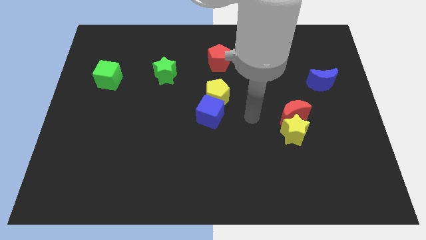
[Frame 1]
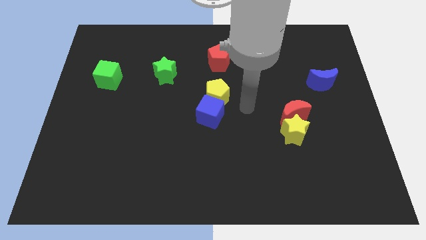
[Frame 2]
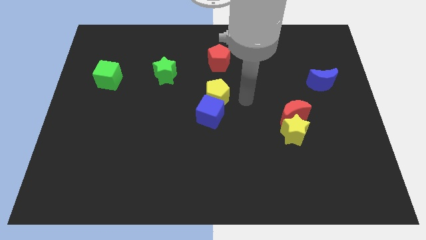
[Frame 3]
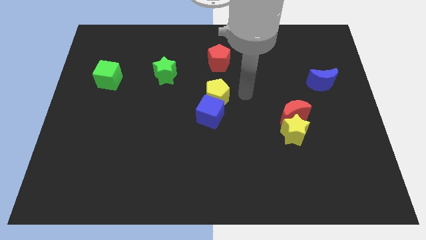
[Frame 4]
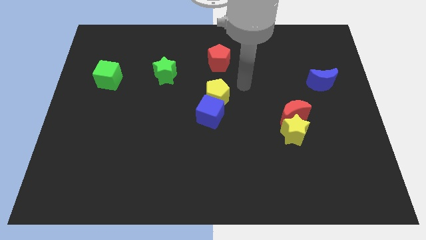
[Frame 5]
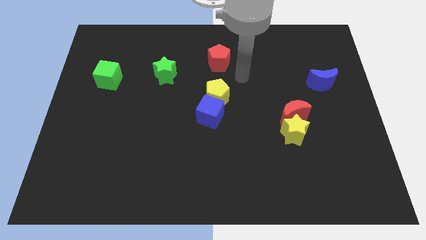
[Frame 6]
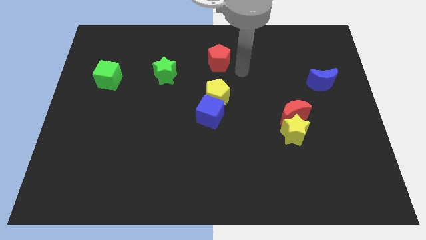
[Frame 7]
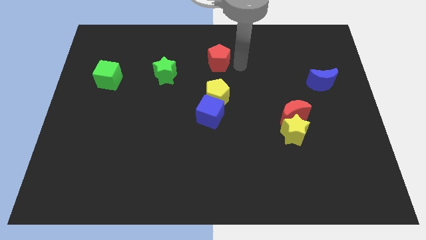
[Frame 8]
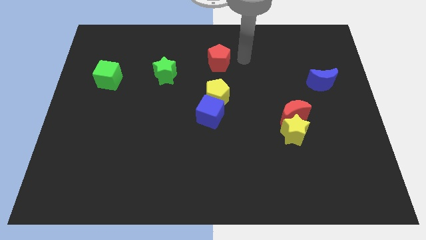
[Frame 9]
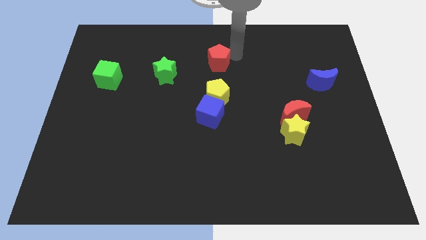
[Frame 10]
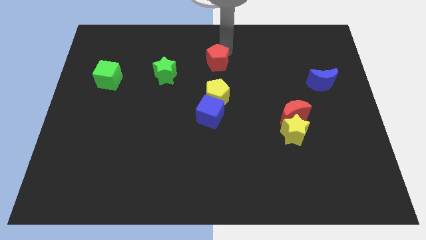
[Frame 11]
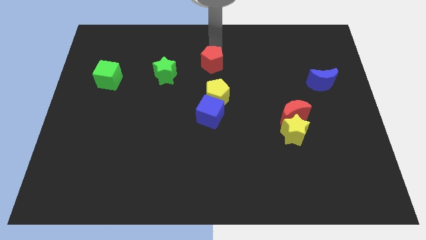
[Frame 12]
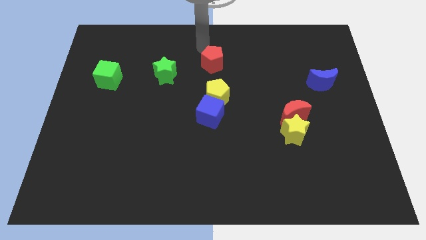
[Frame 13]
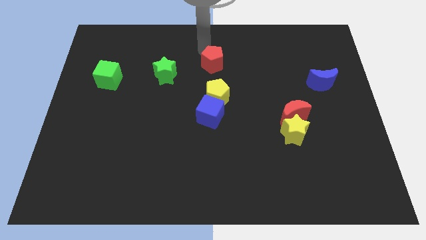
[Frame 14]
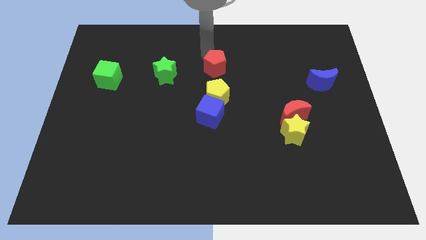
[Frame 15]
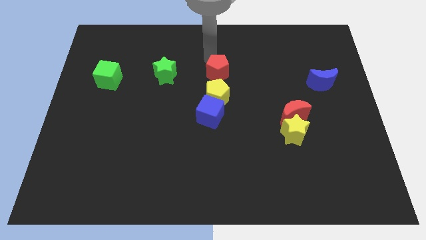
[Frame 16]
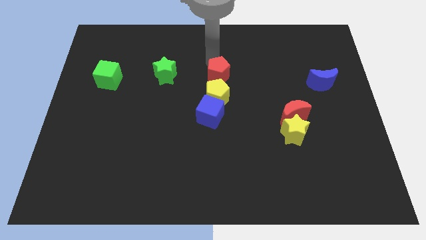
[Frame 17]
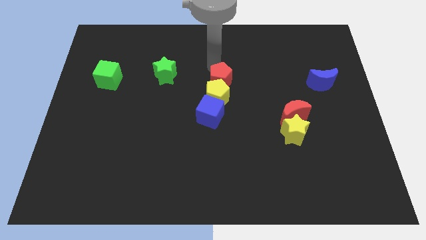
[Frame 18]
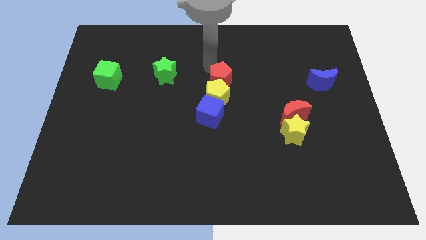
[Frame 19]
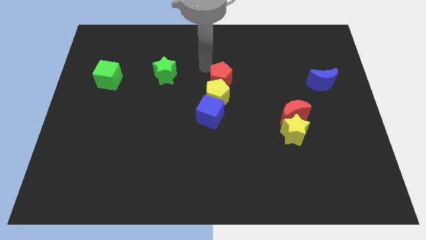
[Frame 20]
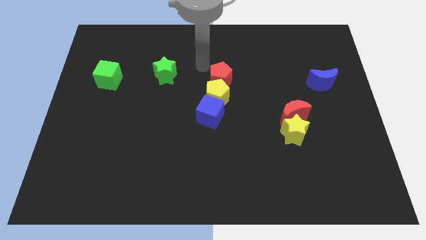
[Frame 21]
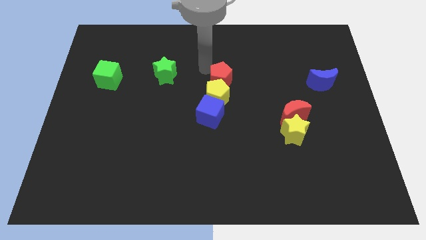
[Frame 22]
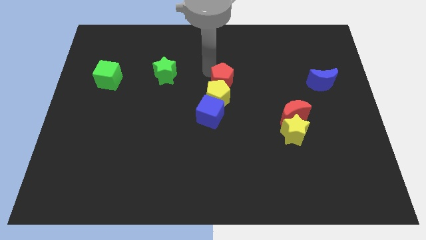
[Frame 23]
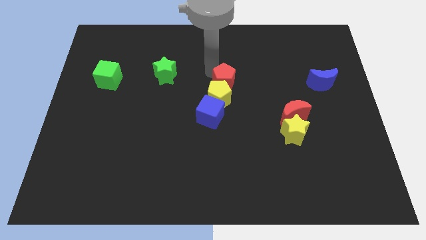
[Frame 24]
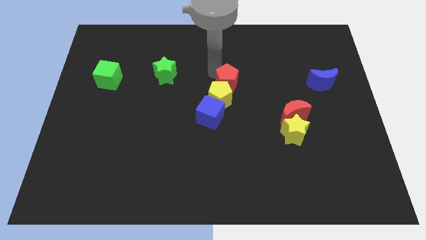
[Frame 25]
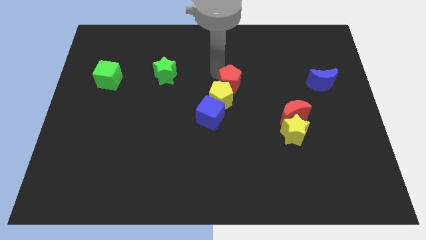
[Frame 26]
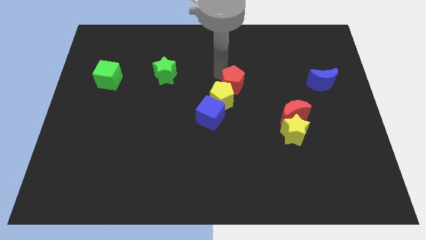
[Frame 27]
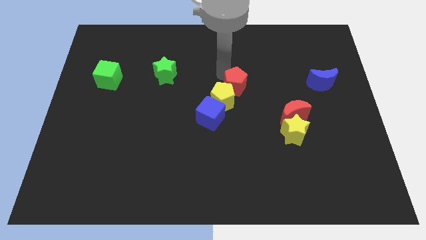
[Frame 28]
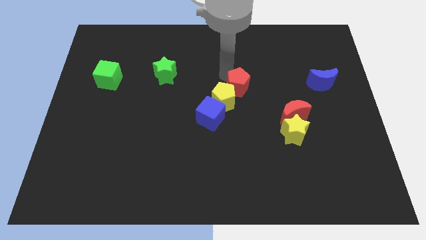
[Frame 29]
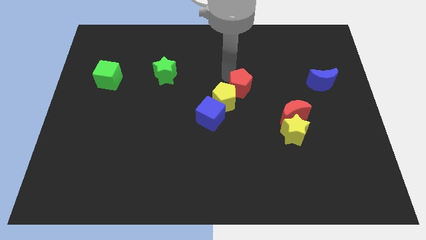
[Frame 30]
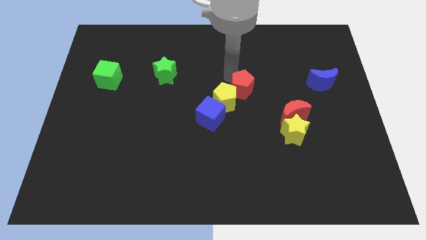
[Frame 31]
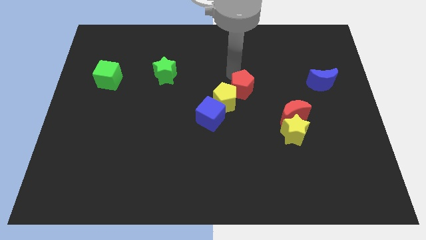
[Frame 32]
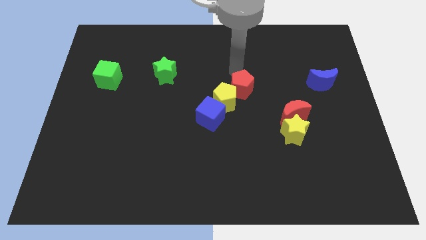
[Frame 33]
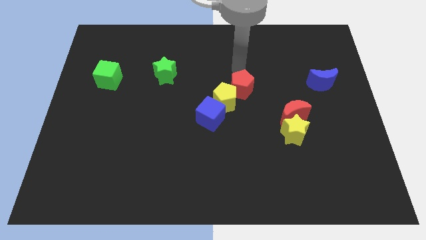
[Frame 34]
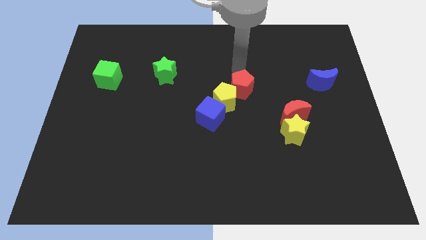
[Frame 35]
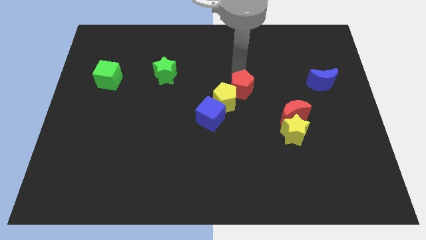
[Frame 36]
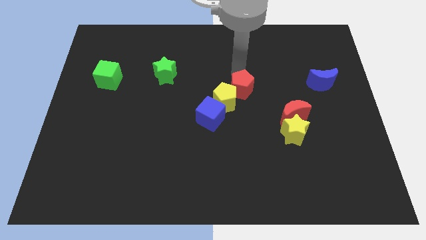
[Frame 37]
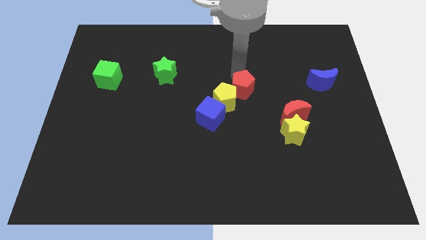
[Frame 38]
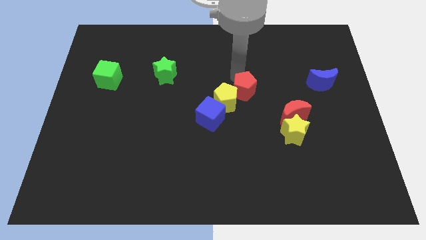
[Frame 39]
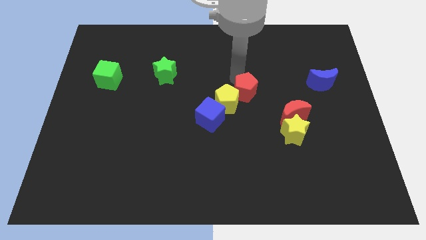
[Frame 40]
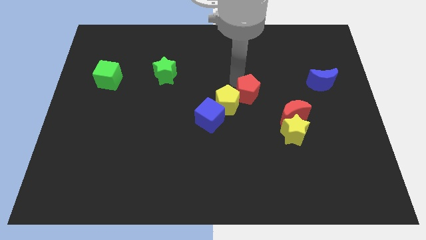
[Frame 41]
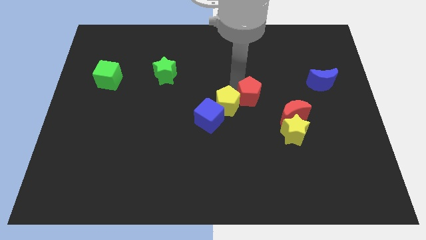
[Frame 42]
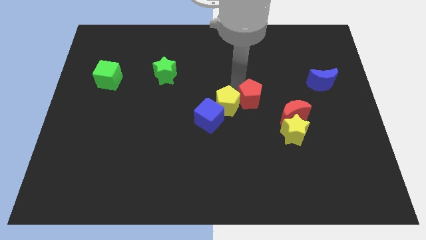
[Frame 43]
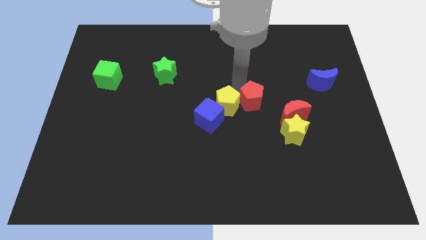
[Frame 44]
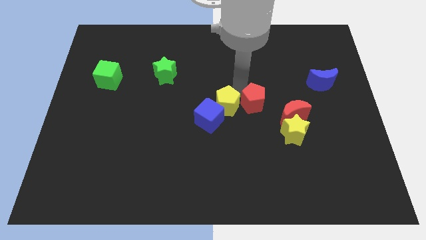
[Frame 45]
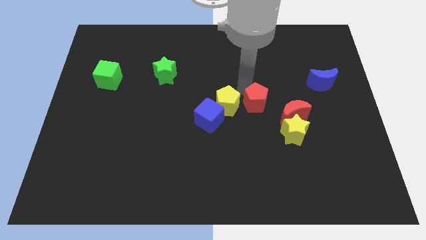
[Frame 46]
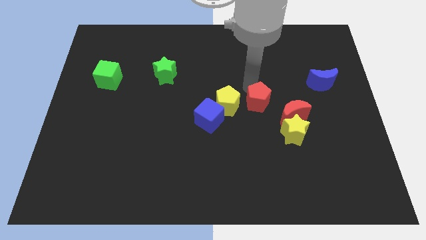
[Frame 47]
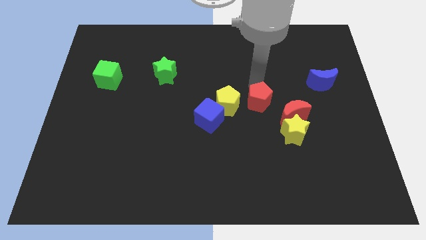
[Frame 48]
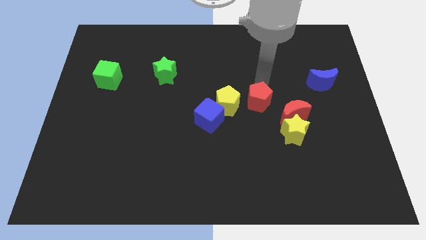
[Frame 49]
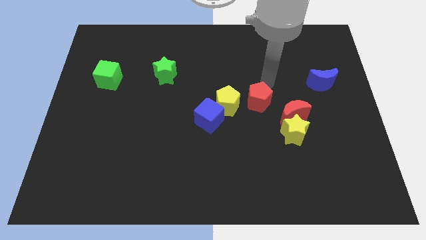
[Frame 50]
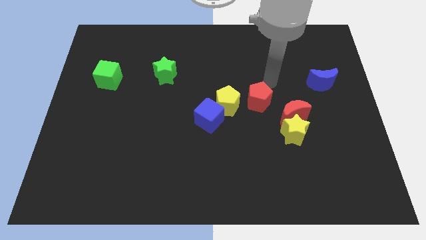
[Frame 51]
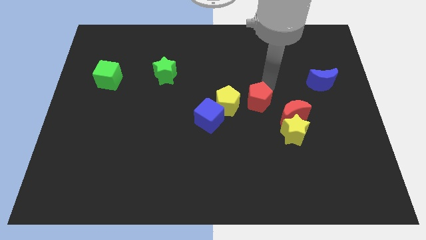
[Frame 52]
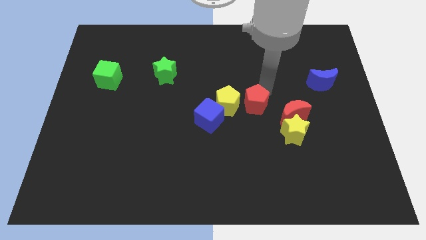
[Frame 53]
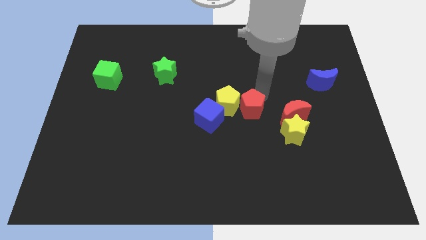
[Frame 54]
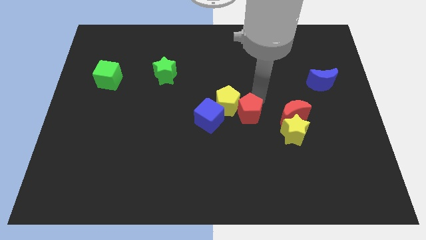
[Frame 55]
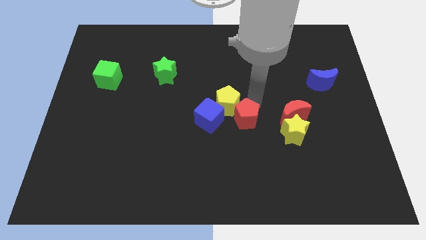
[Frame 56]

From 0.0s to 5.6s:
move the red pentagon just left of the yellow star

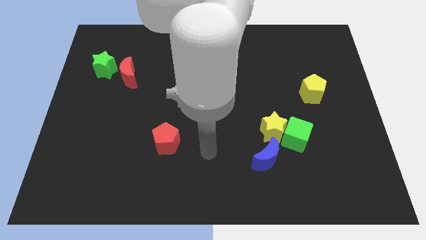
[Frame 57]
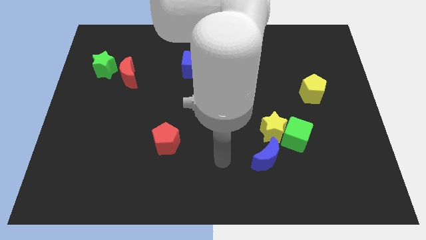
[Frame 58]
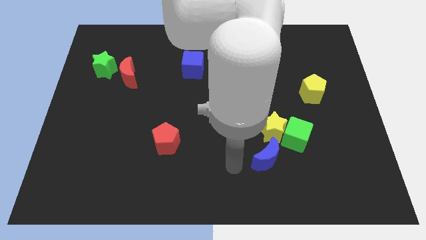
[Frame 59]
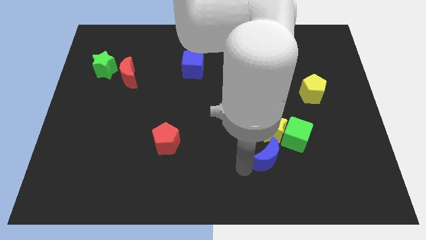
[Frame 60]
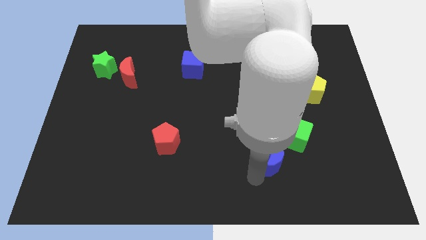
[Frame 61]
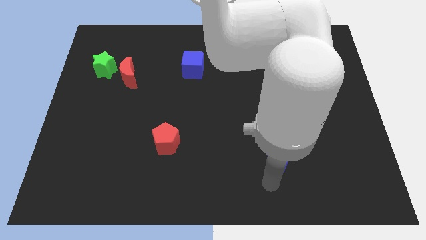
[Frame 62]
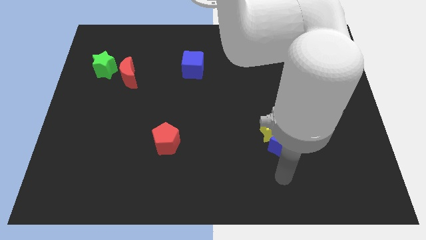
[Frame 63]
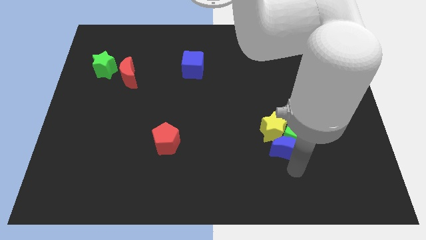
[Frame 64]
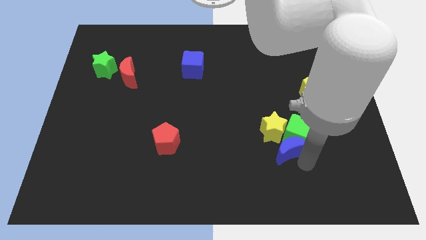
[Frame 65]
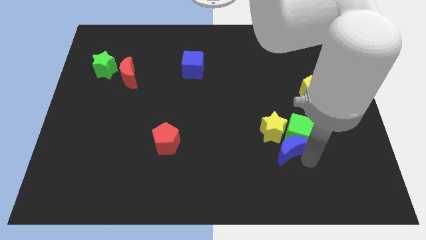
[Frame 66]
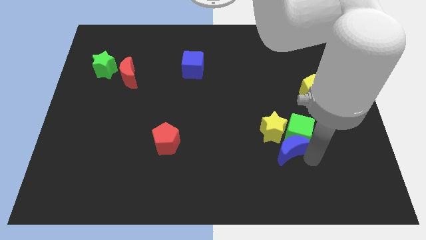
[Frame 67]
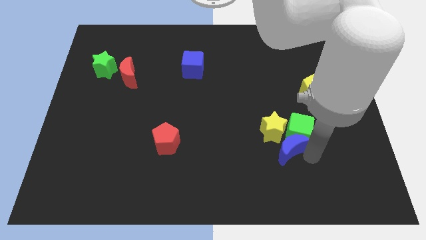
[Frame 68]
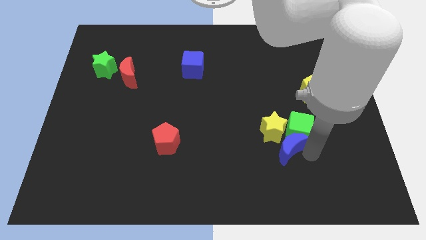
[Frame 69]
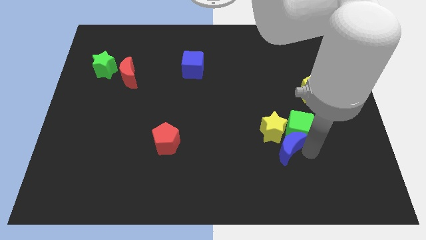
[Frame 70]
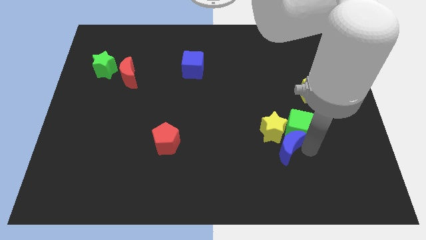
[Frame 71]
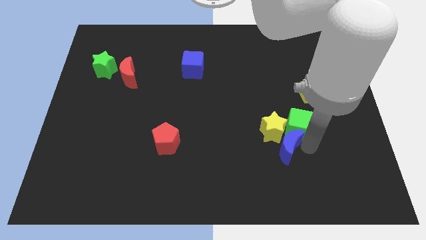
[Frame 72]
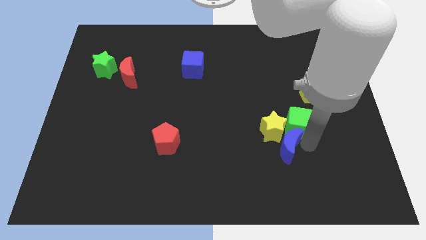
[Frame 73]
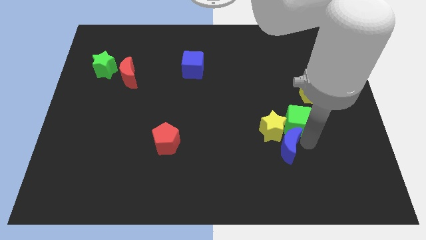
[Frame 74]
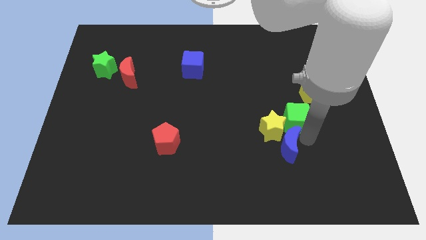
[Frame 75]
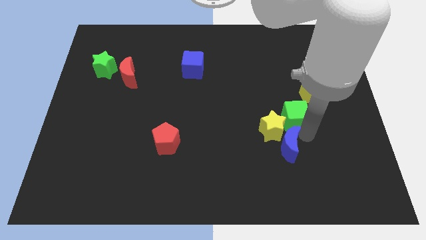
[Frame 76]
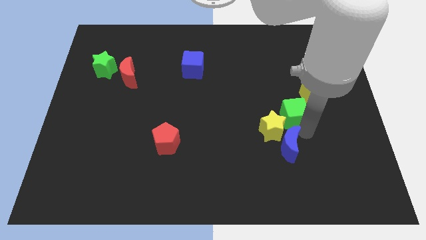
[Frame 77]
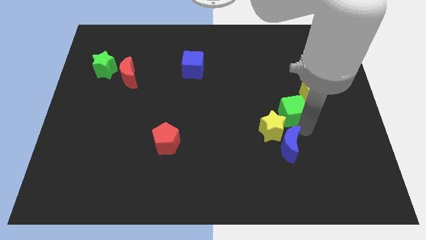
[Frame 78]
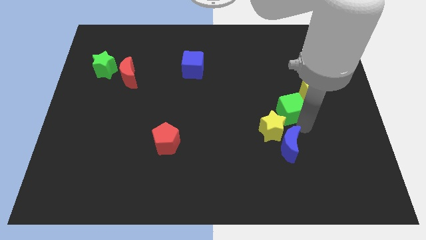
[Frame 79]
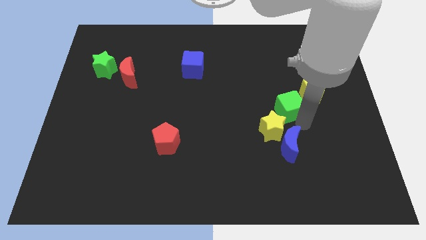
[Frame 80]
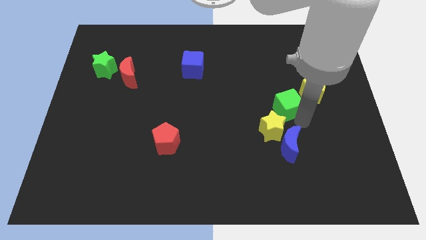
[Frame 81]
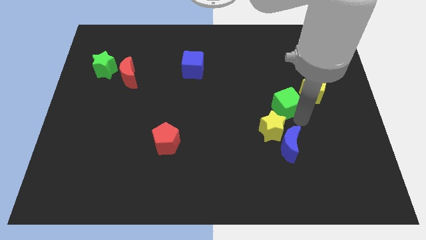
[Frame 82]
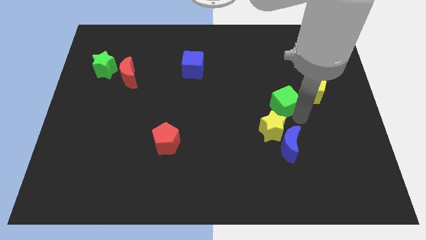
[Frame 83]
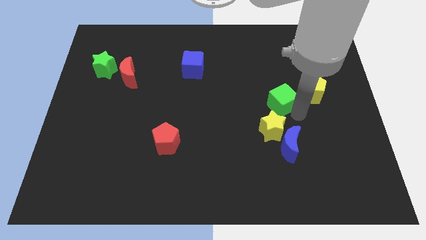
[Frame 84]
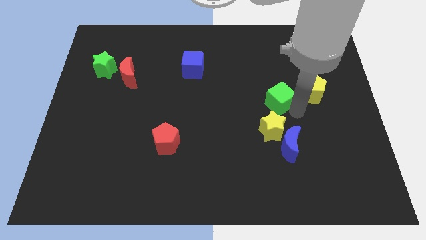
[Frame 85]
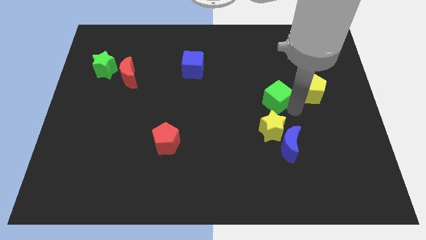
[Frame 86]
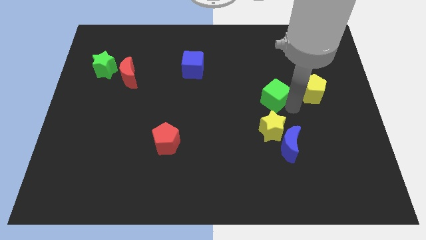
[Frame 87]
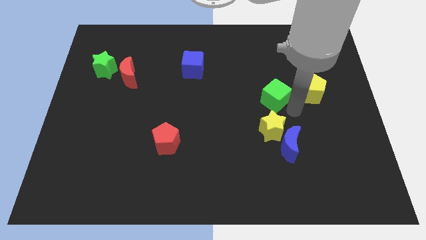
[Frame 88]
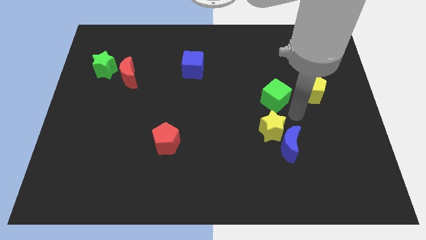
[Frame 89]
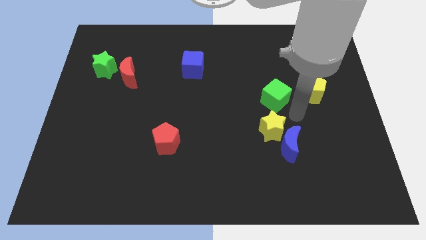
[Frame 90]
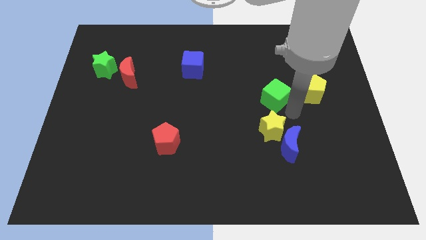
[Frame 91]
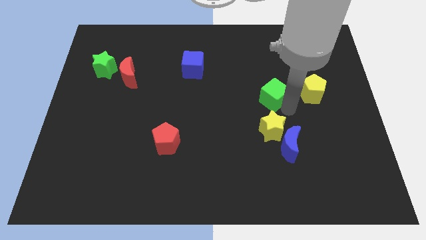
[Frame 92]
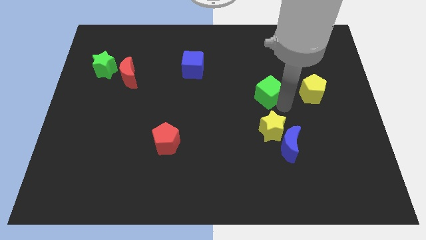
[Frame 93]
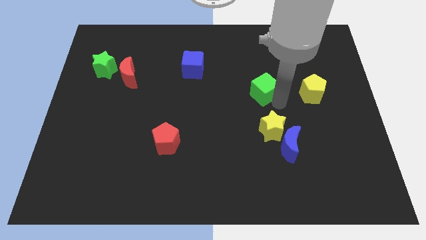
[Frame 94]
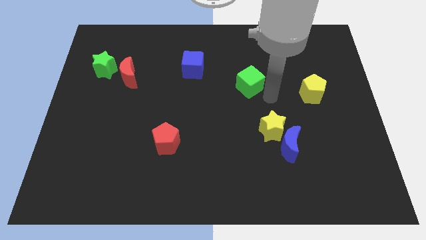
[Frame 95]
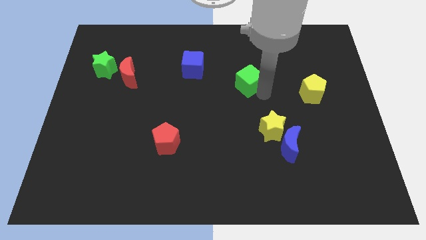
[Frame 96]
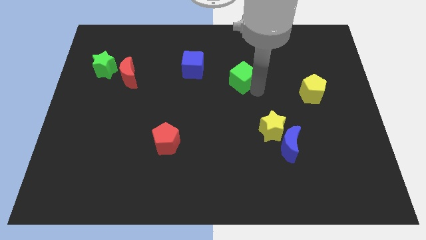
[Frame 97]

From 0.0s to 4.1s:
push the green cube just right of the blue cube
